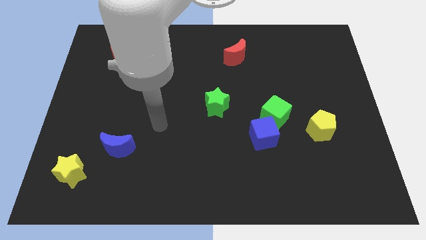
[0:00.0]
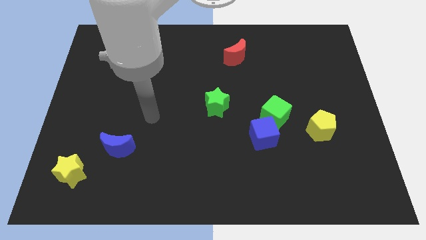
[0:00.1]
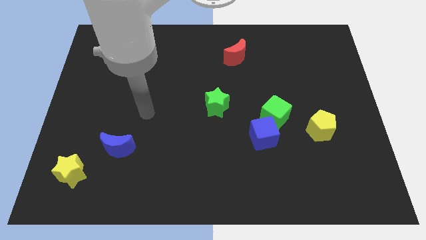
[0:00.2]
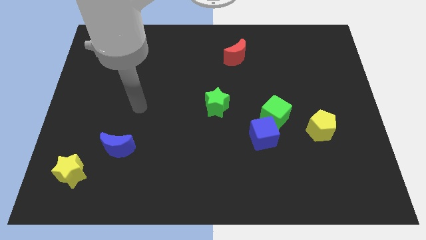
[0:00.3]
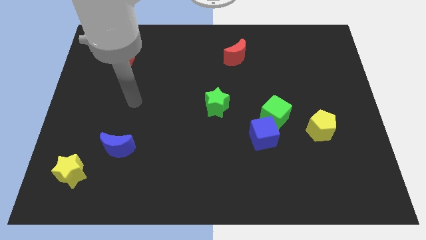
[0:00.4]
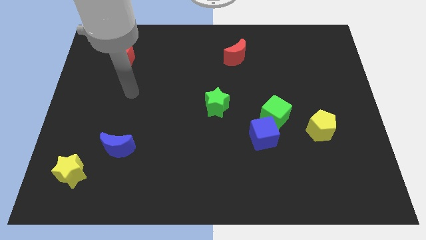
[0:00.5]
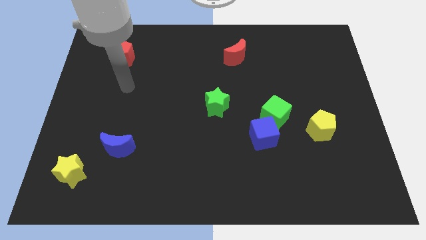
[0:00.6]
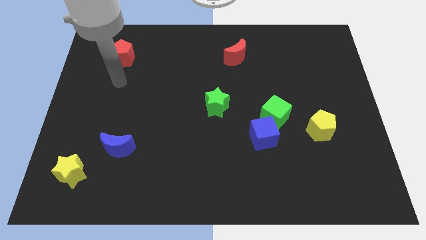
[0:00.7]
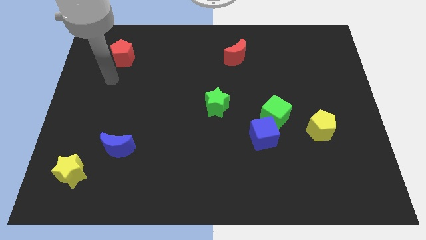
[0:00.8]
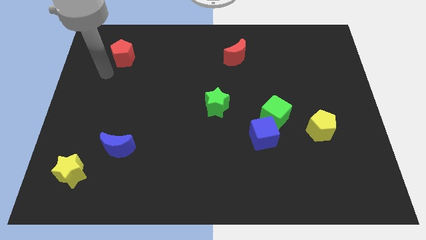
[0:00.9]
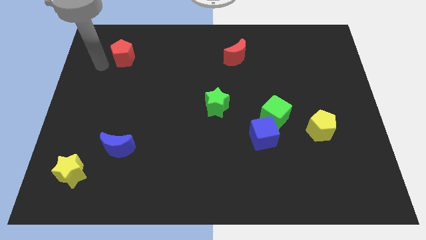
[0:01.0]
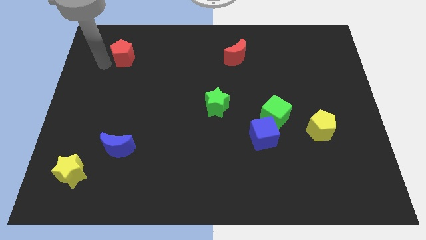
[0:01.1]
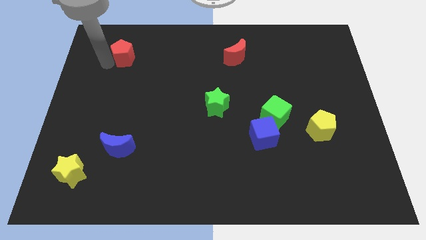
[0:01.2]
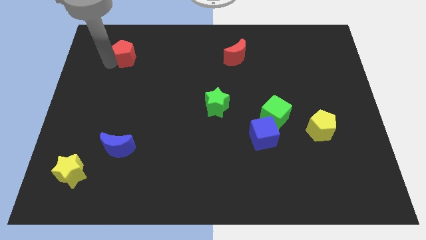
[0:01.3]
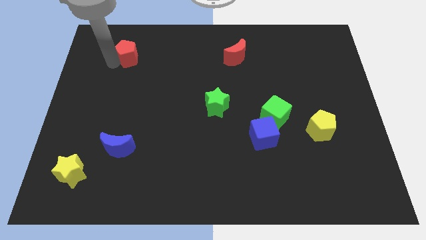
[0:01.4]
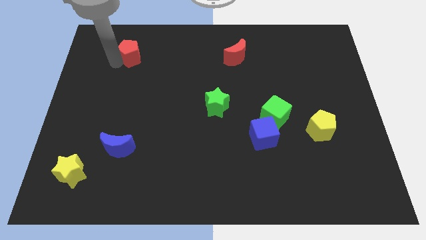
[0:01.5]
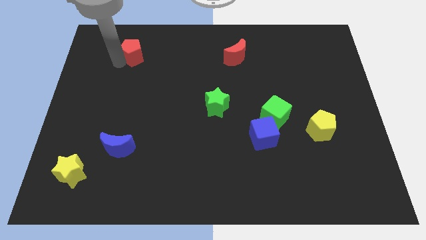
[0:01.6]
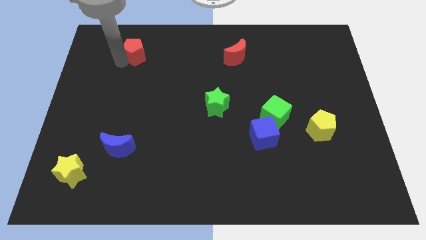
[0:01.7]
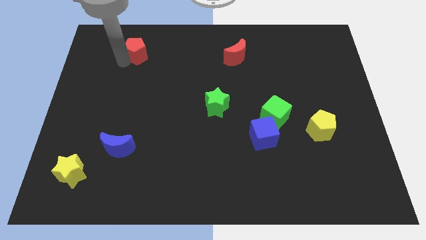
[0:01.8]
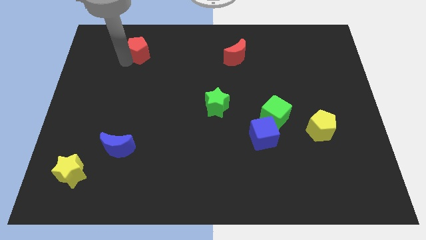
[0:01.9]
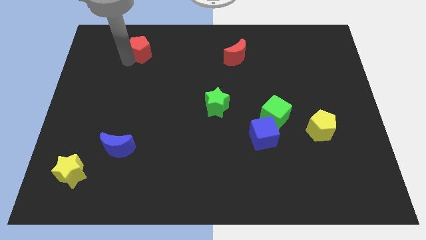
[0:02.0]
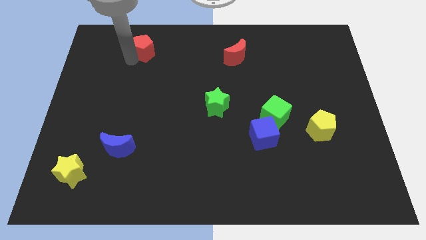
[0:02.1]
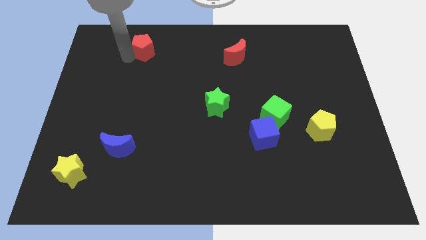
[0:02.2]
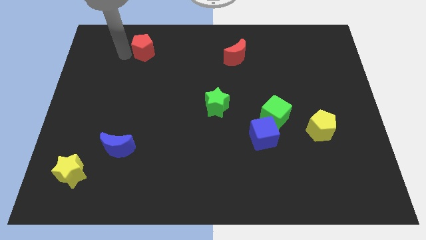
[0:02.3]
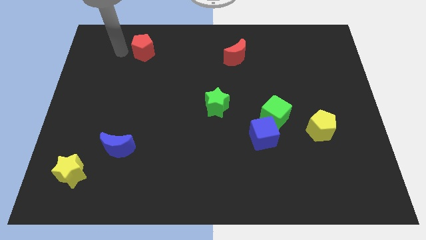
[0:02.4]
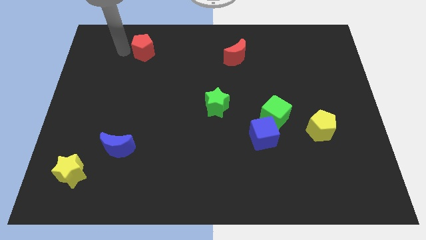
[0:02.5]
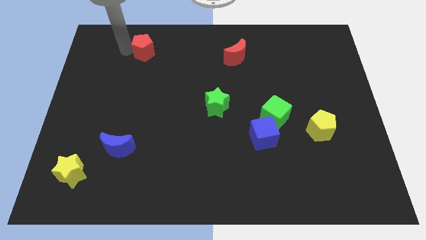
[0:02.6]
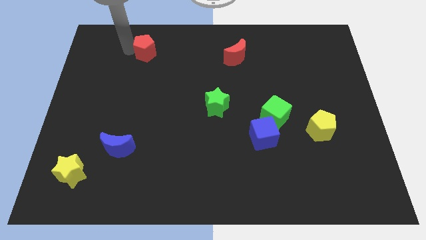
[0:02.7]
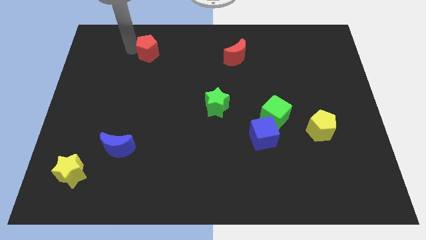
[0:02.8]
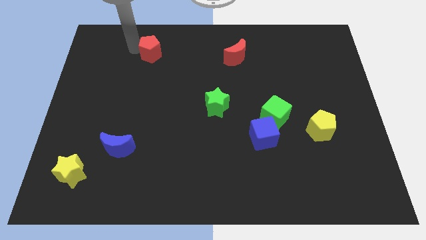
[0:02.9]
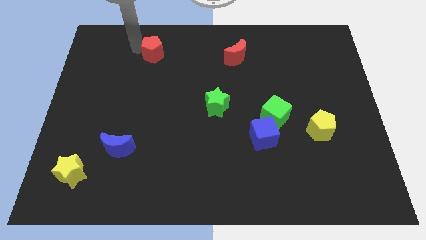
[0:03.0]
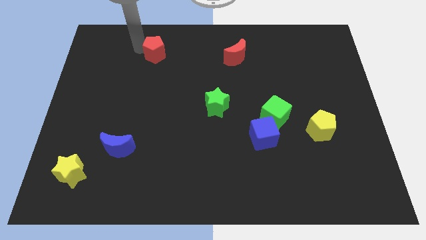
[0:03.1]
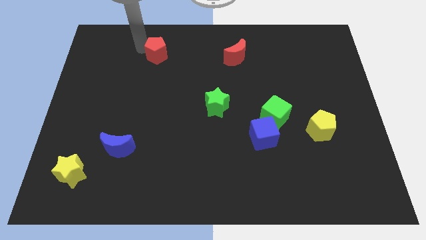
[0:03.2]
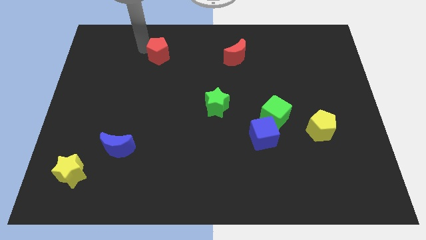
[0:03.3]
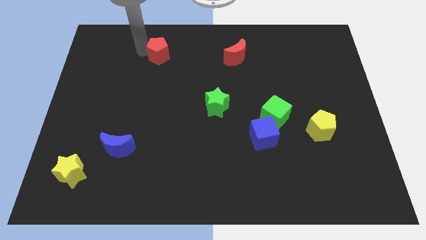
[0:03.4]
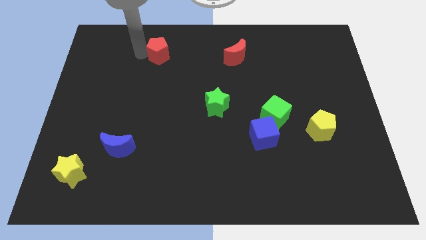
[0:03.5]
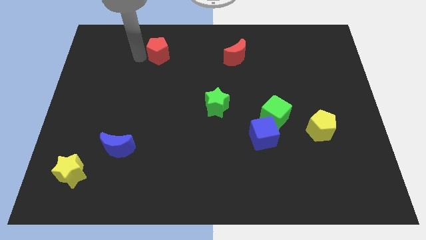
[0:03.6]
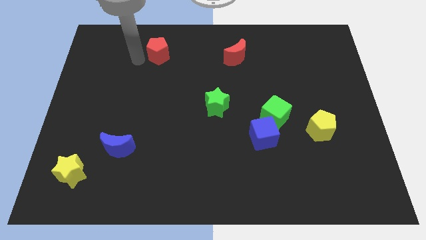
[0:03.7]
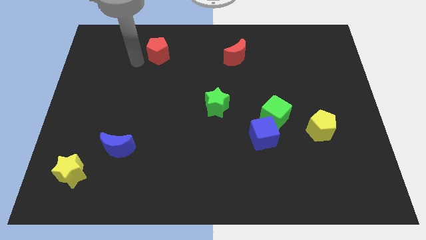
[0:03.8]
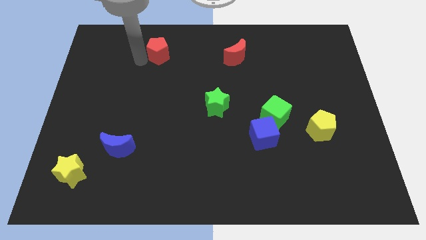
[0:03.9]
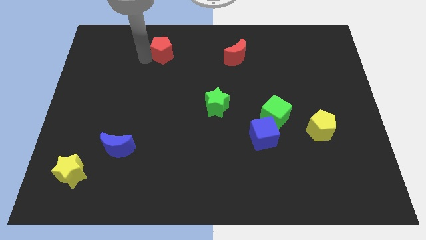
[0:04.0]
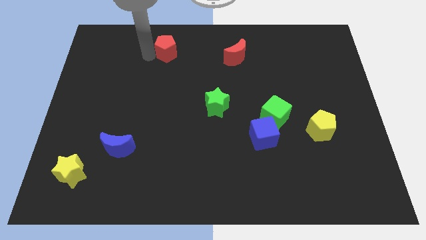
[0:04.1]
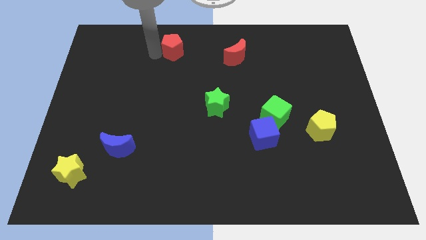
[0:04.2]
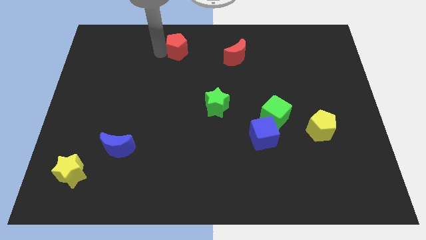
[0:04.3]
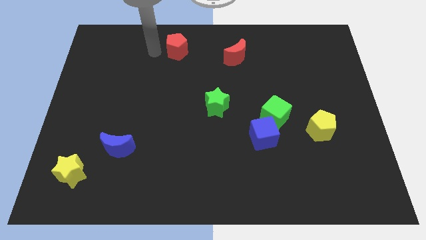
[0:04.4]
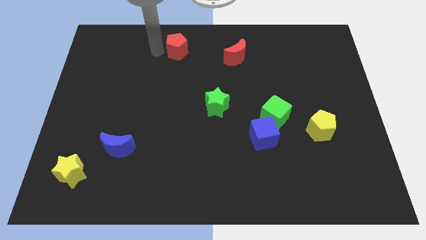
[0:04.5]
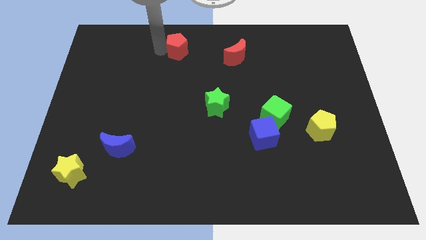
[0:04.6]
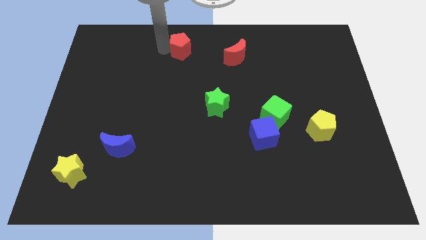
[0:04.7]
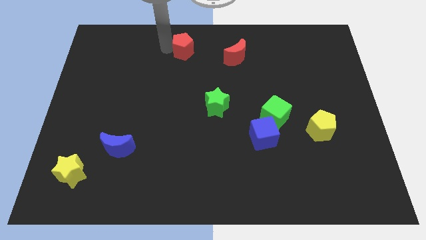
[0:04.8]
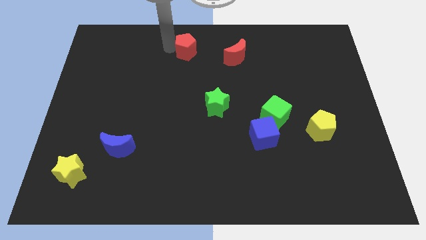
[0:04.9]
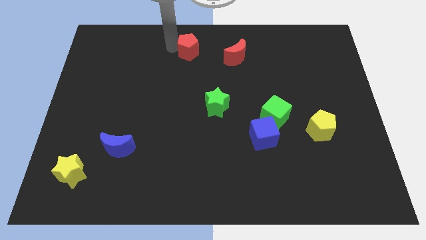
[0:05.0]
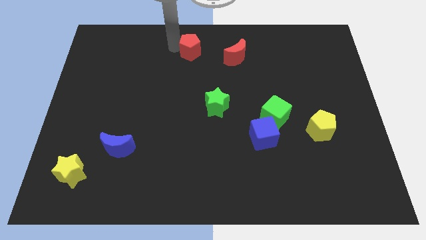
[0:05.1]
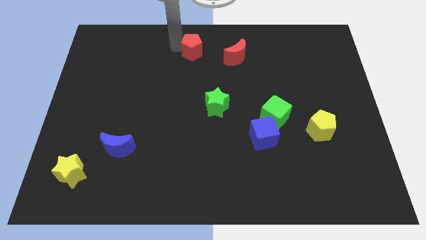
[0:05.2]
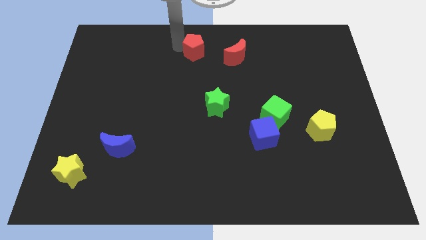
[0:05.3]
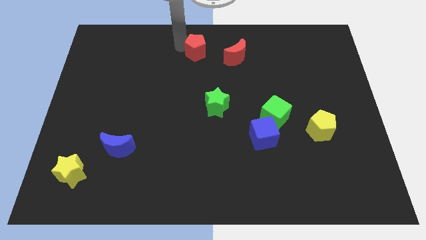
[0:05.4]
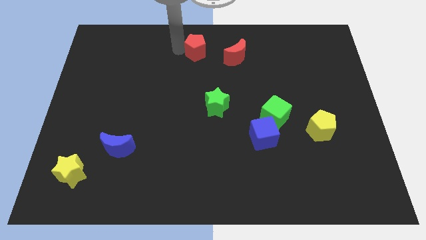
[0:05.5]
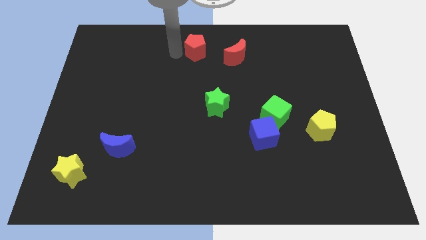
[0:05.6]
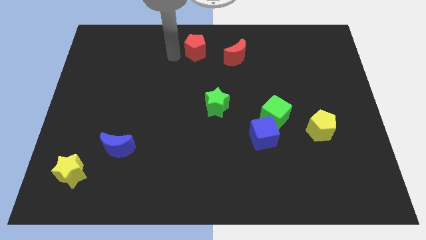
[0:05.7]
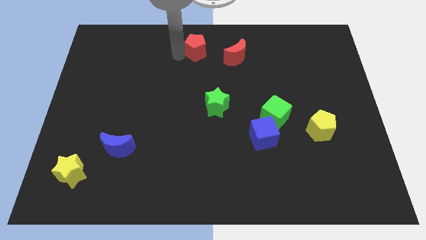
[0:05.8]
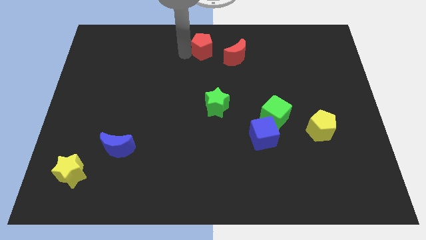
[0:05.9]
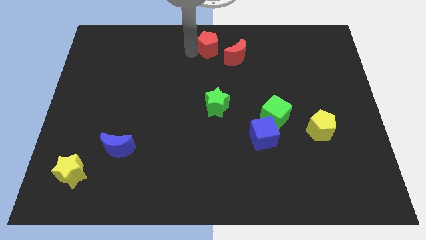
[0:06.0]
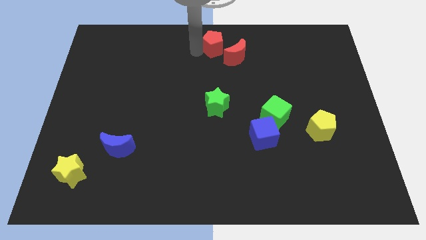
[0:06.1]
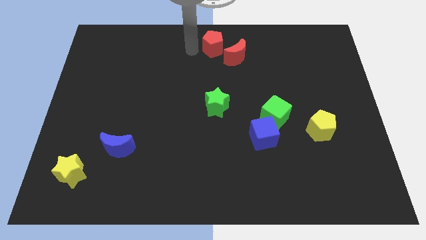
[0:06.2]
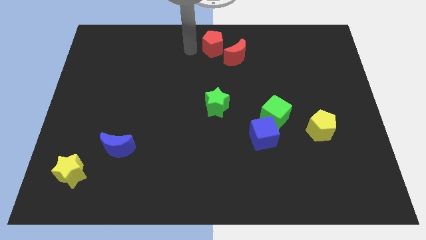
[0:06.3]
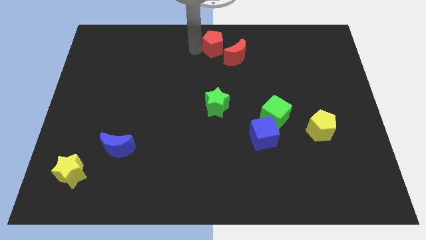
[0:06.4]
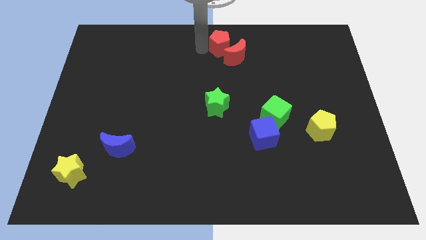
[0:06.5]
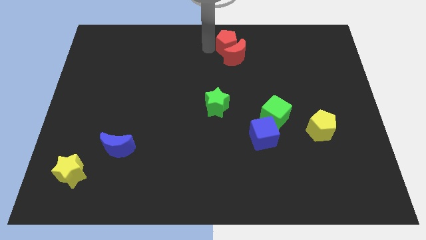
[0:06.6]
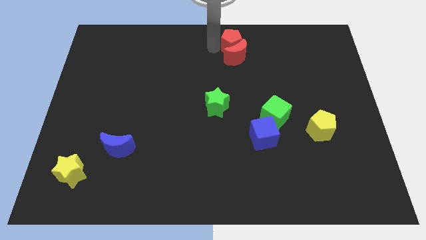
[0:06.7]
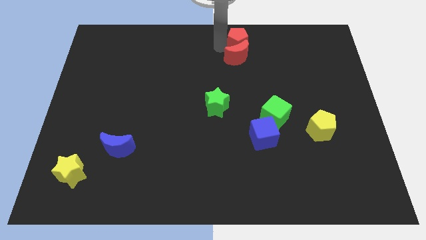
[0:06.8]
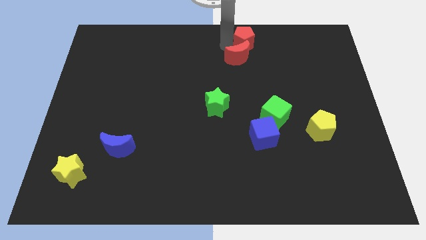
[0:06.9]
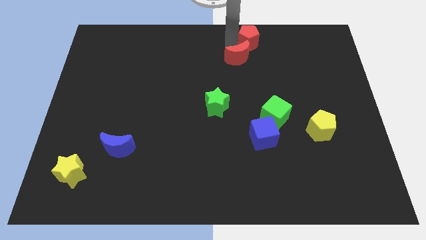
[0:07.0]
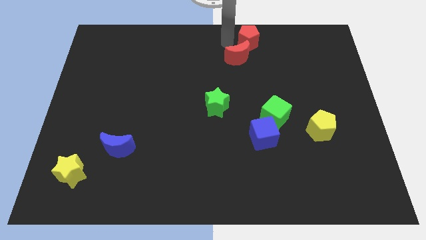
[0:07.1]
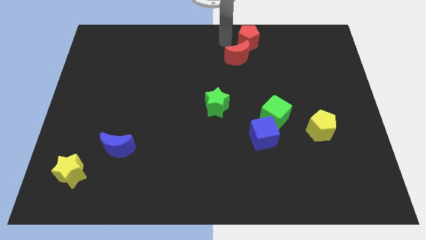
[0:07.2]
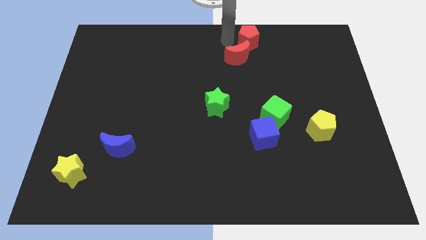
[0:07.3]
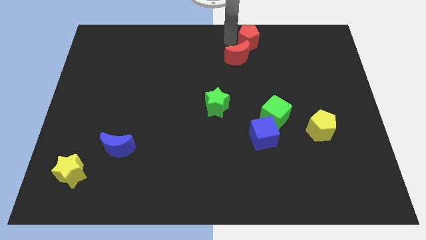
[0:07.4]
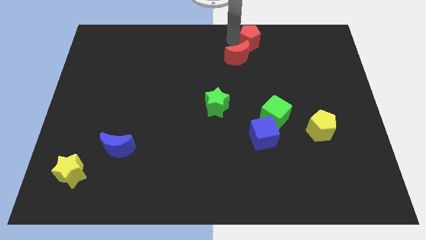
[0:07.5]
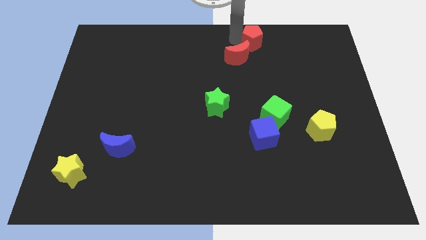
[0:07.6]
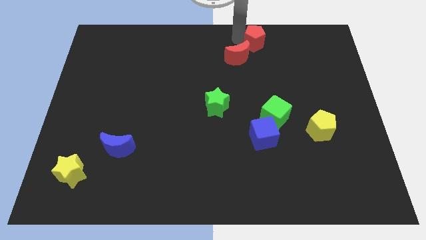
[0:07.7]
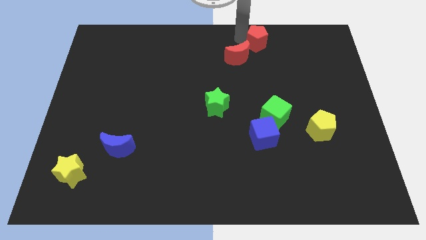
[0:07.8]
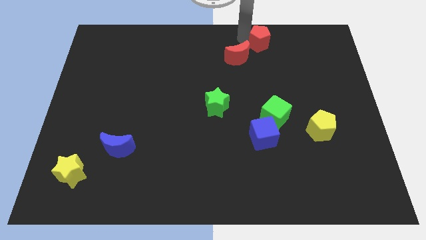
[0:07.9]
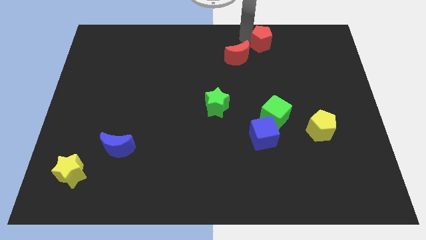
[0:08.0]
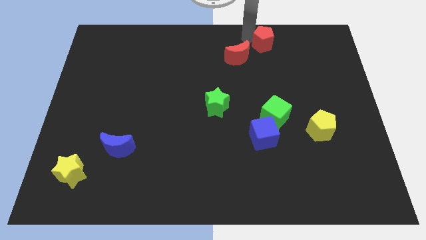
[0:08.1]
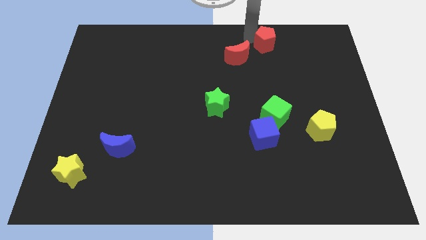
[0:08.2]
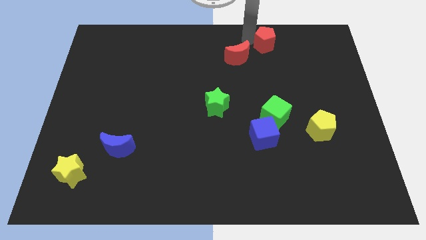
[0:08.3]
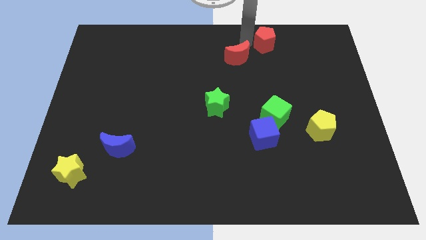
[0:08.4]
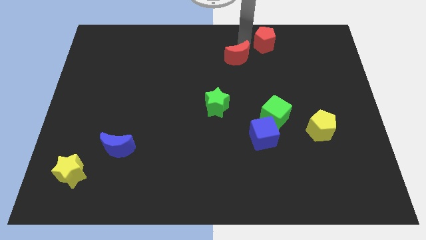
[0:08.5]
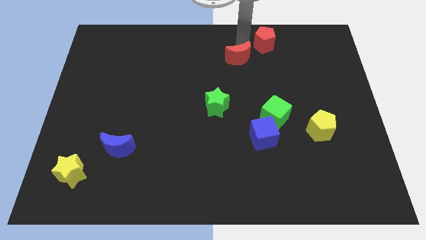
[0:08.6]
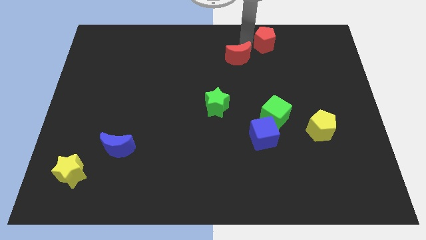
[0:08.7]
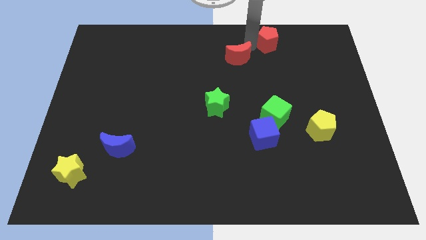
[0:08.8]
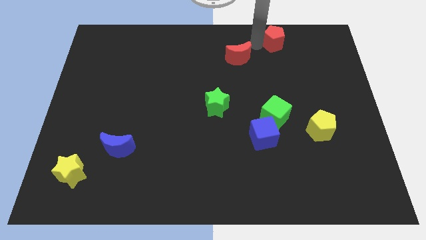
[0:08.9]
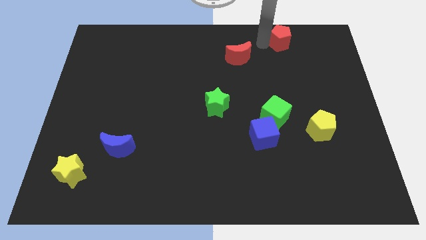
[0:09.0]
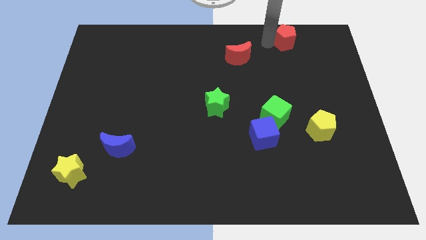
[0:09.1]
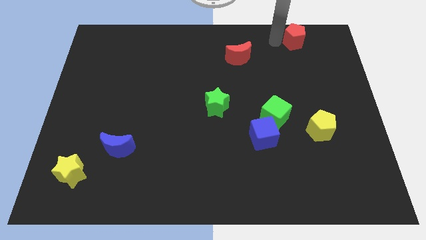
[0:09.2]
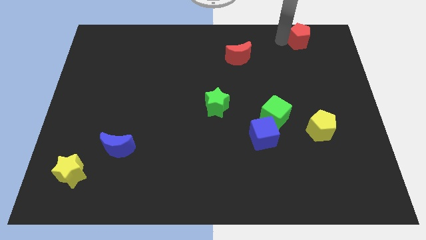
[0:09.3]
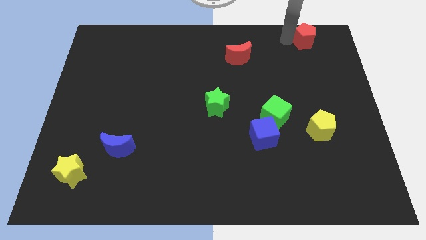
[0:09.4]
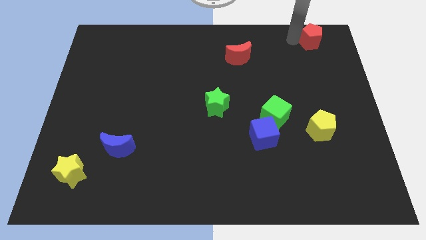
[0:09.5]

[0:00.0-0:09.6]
push the red pentagon to the top right of the board
